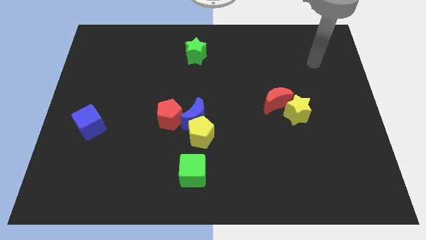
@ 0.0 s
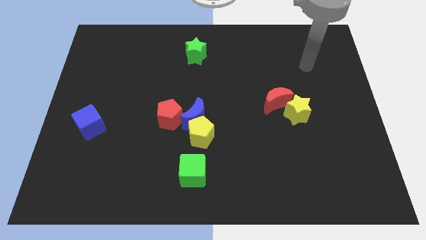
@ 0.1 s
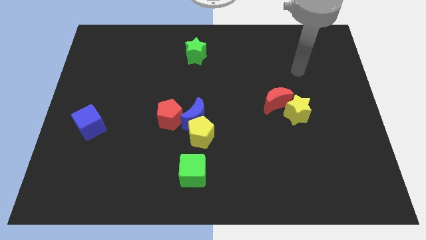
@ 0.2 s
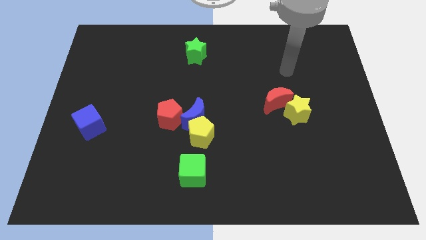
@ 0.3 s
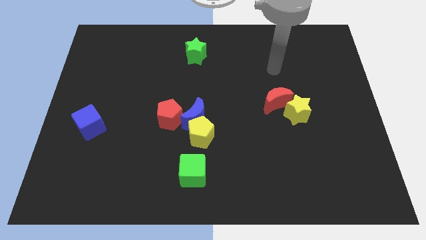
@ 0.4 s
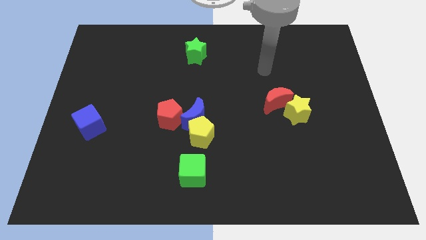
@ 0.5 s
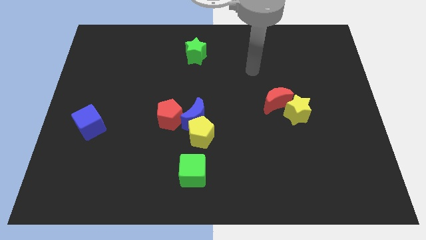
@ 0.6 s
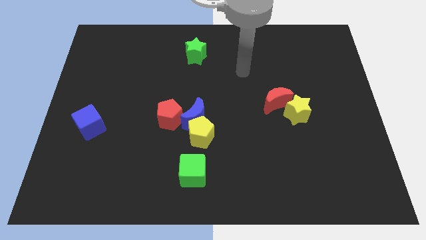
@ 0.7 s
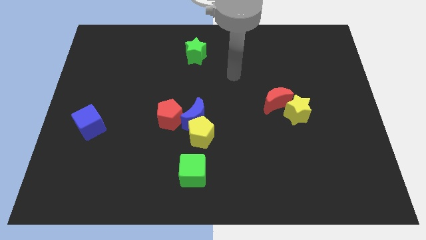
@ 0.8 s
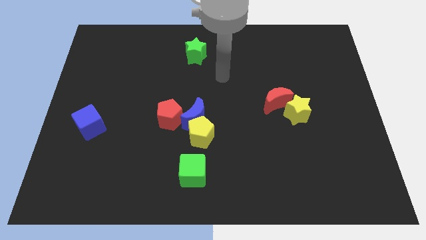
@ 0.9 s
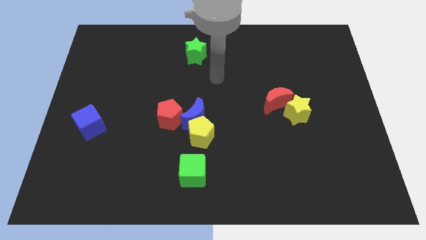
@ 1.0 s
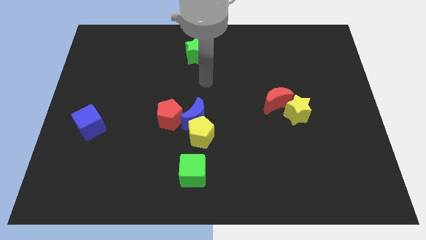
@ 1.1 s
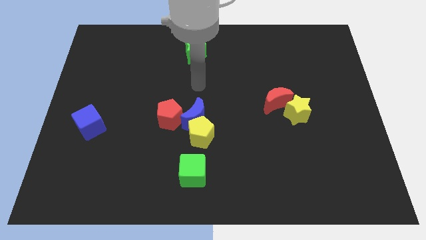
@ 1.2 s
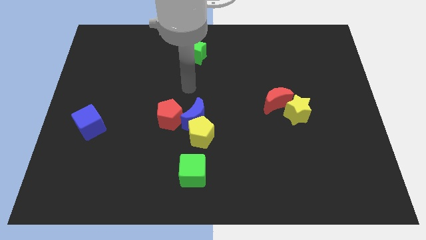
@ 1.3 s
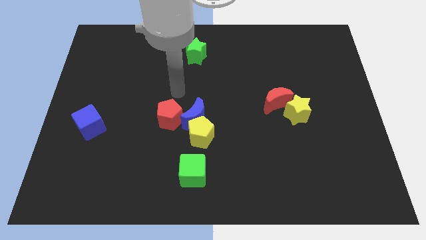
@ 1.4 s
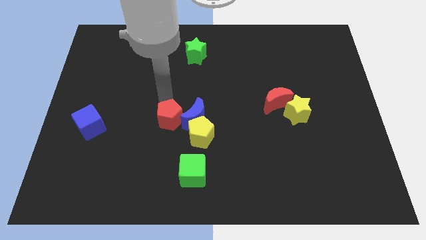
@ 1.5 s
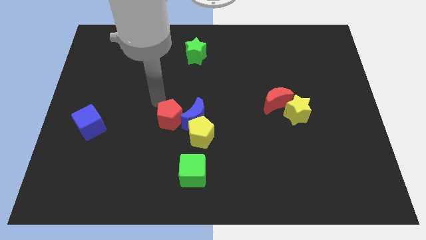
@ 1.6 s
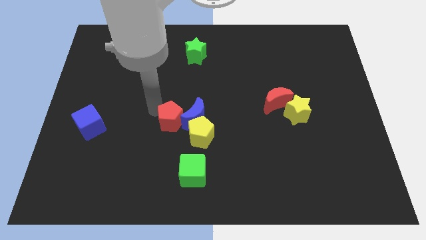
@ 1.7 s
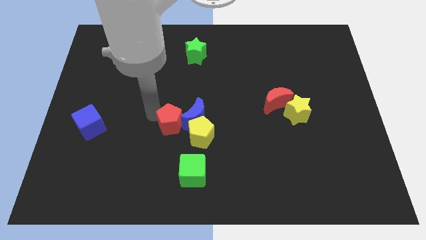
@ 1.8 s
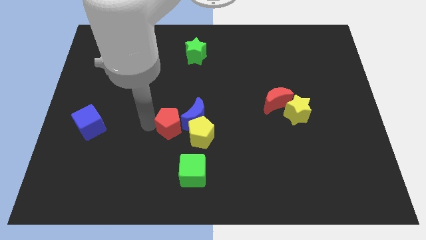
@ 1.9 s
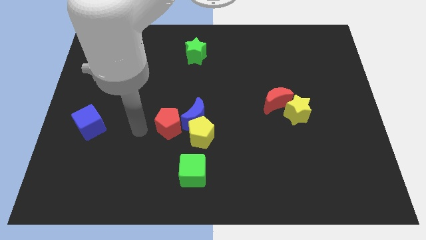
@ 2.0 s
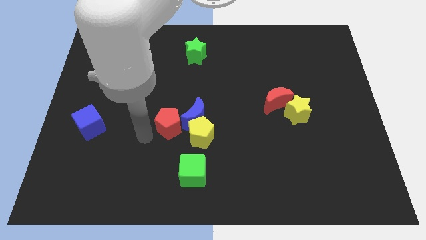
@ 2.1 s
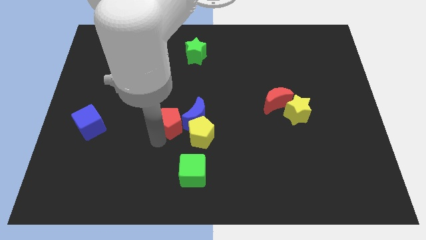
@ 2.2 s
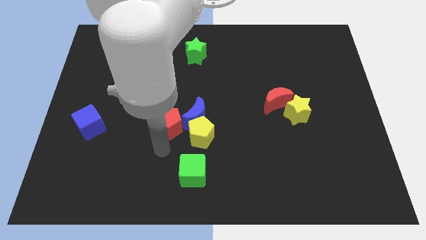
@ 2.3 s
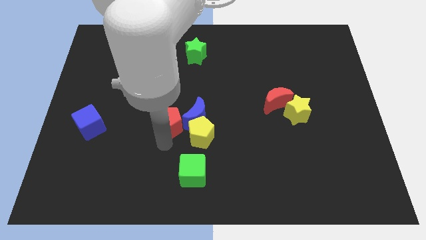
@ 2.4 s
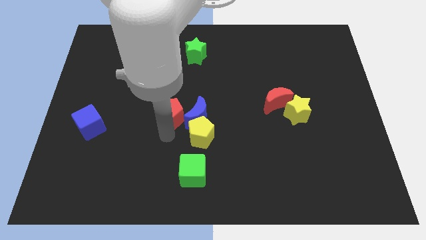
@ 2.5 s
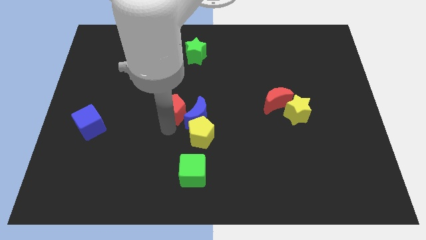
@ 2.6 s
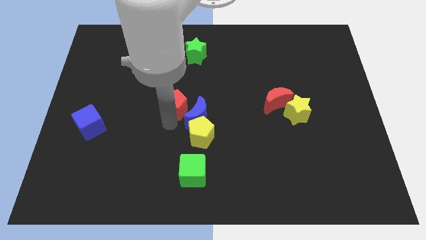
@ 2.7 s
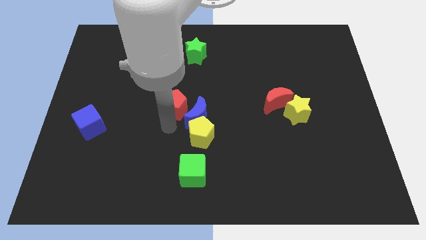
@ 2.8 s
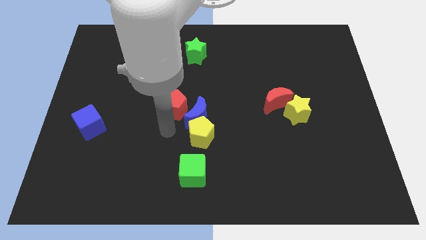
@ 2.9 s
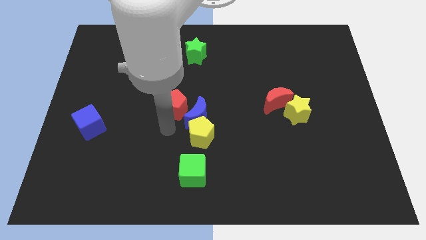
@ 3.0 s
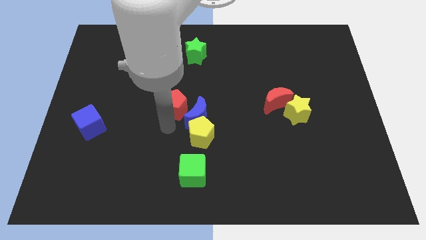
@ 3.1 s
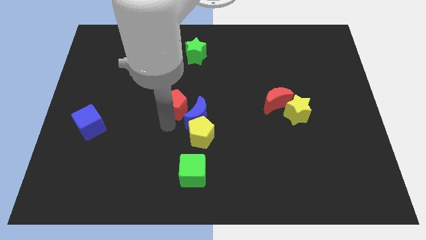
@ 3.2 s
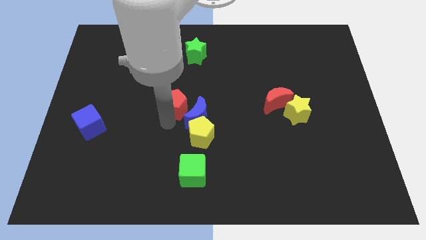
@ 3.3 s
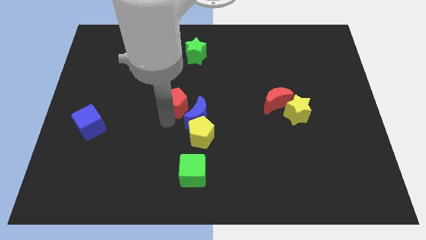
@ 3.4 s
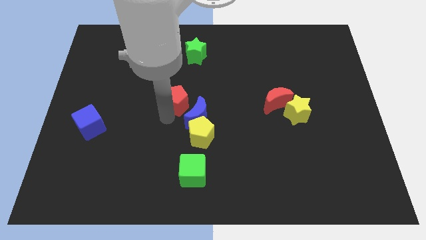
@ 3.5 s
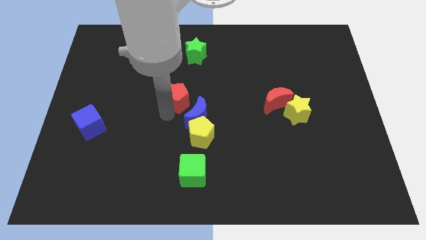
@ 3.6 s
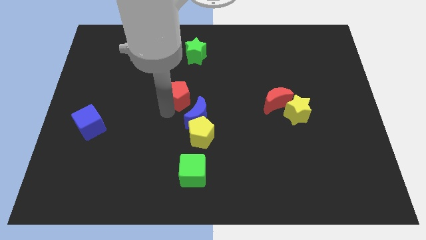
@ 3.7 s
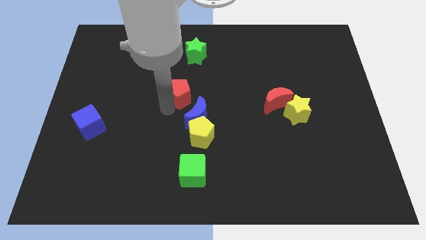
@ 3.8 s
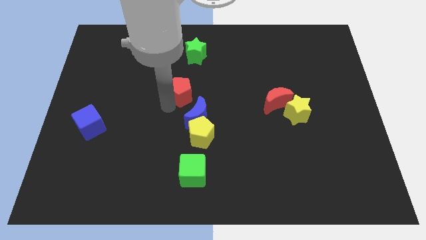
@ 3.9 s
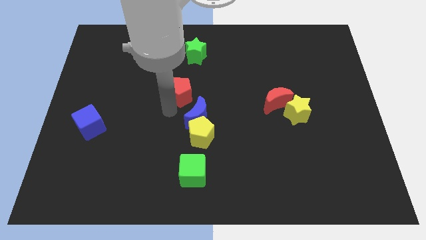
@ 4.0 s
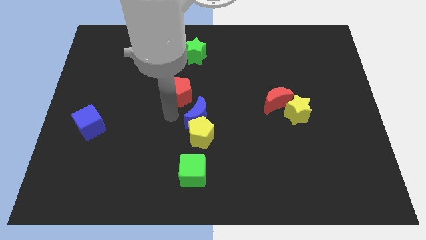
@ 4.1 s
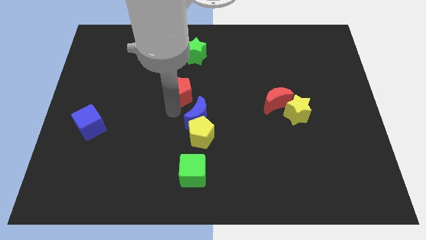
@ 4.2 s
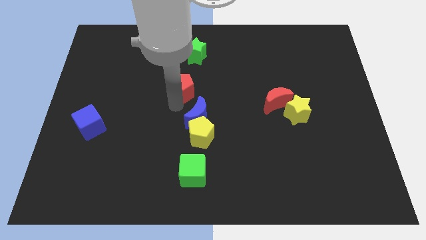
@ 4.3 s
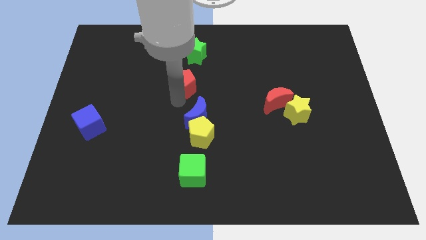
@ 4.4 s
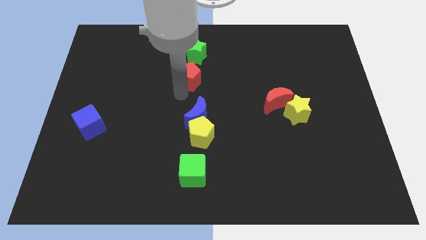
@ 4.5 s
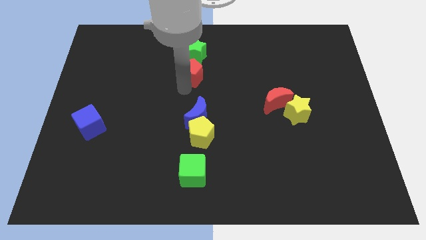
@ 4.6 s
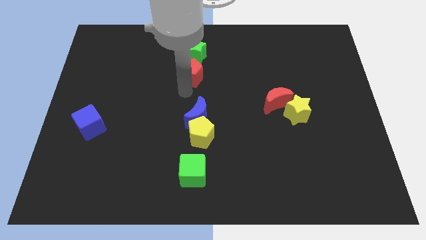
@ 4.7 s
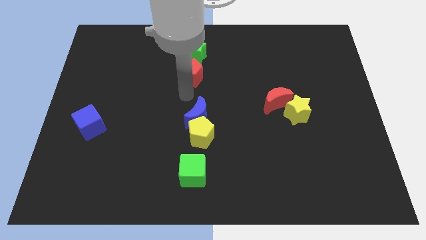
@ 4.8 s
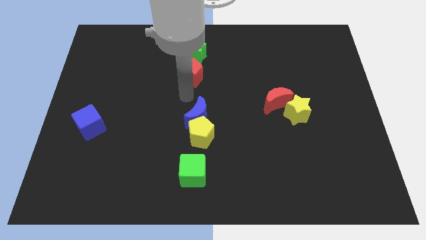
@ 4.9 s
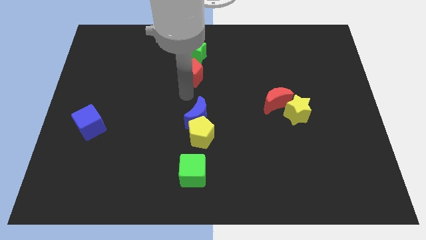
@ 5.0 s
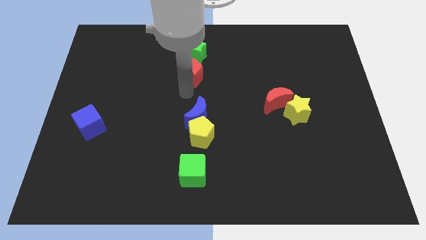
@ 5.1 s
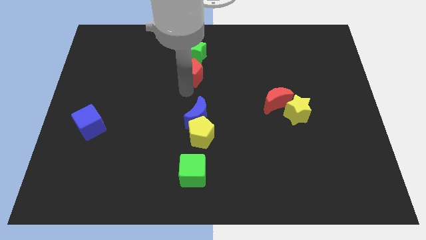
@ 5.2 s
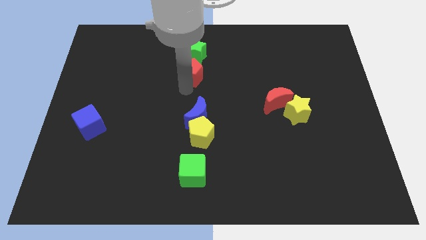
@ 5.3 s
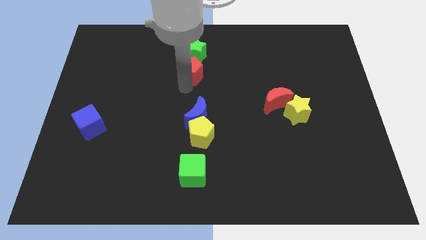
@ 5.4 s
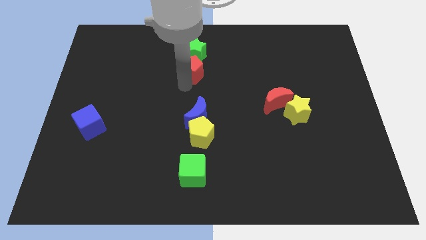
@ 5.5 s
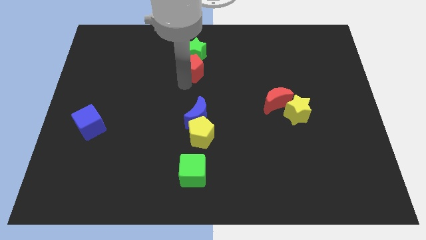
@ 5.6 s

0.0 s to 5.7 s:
slide the red pentagon next to the green star

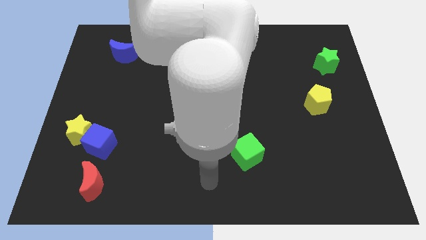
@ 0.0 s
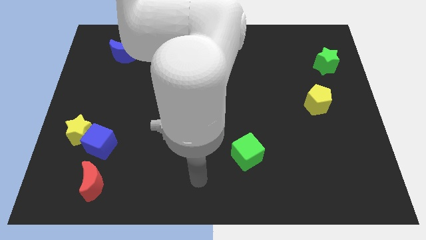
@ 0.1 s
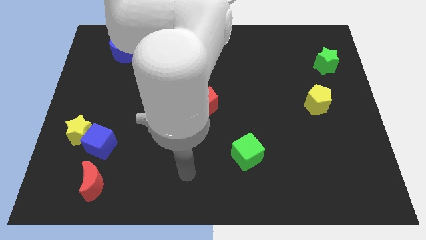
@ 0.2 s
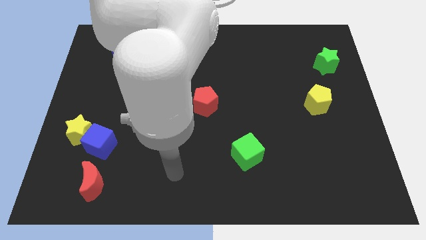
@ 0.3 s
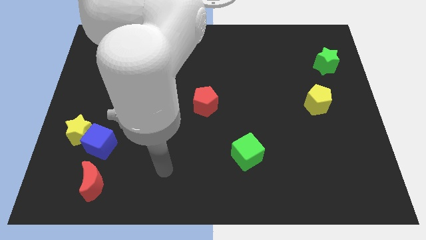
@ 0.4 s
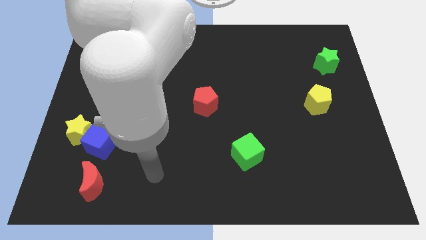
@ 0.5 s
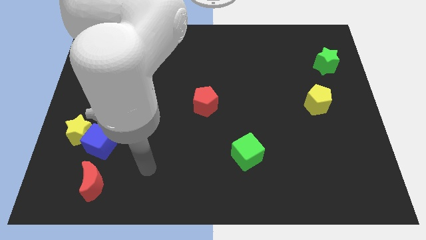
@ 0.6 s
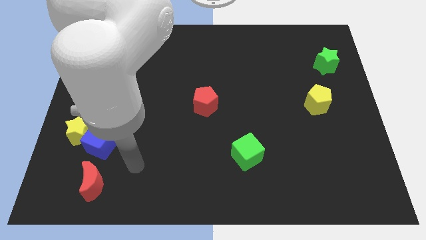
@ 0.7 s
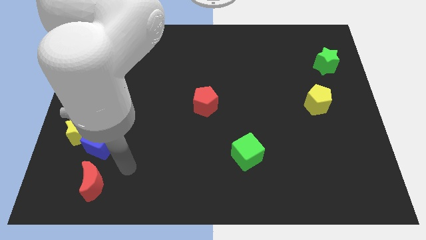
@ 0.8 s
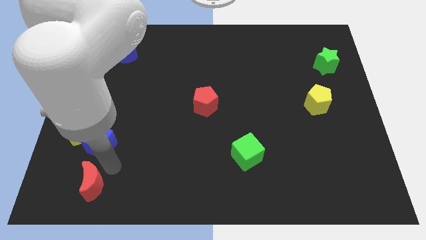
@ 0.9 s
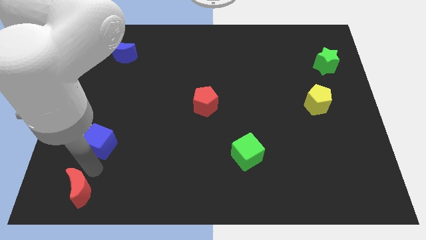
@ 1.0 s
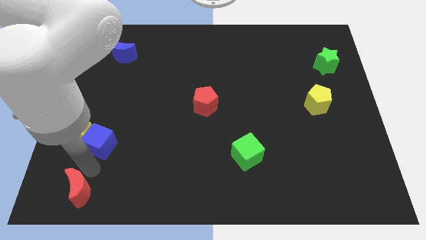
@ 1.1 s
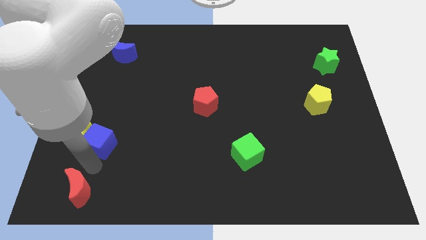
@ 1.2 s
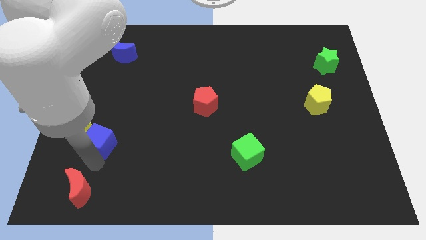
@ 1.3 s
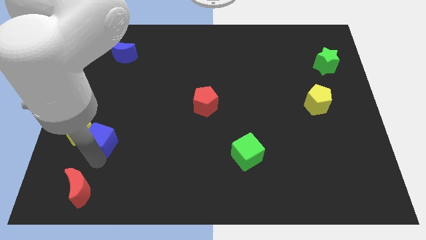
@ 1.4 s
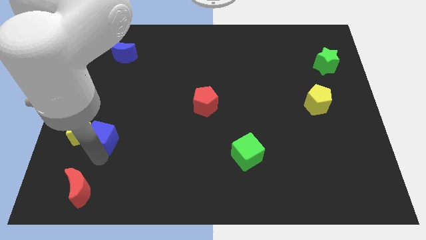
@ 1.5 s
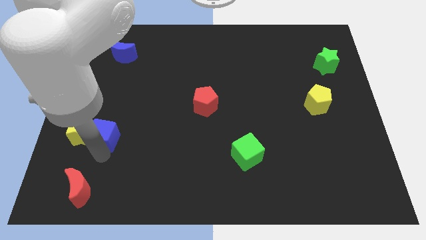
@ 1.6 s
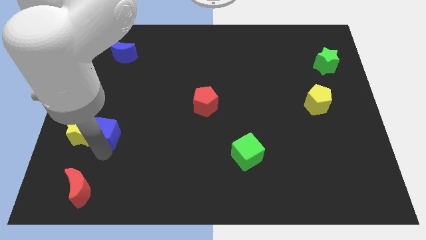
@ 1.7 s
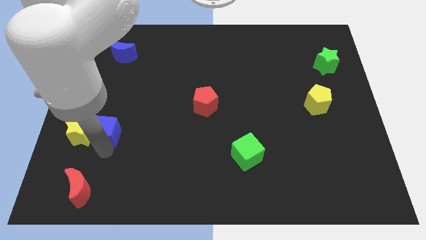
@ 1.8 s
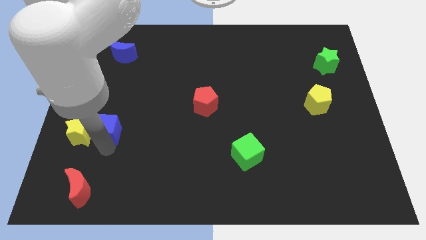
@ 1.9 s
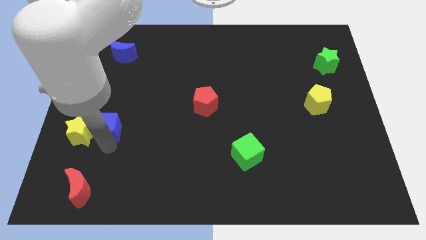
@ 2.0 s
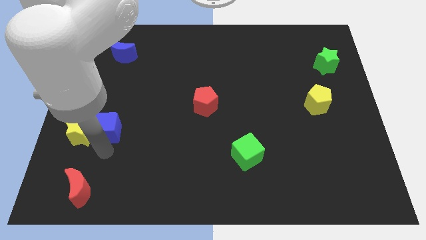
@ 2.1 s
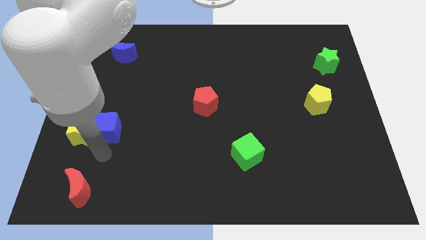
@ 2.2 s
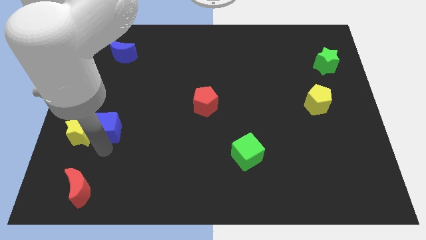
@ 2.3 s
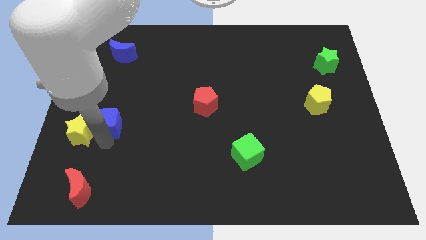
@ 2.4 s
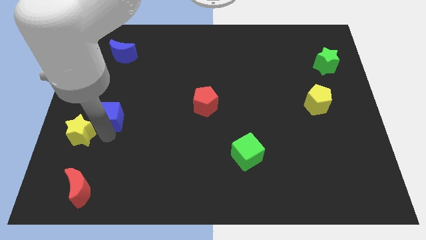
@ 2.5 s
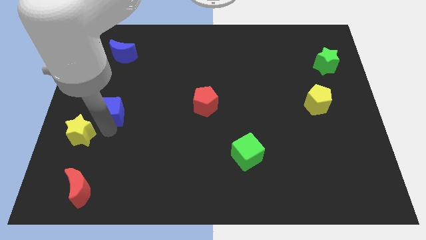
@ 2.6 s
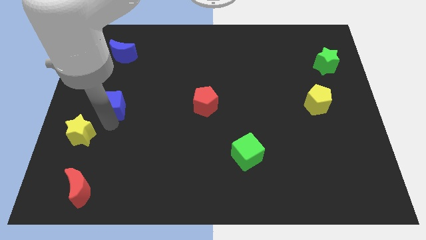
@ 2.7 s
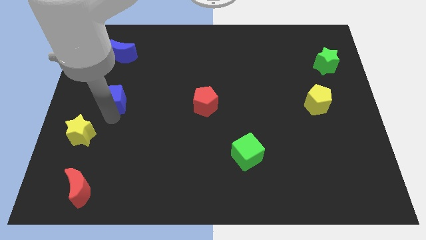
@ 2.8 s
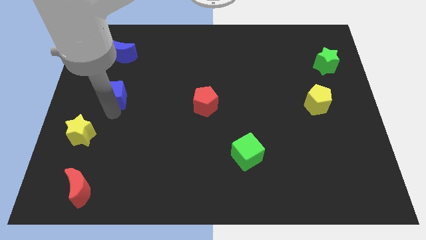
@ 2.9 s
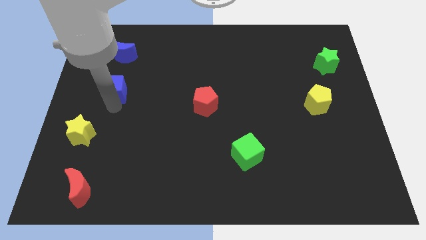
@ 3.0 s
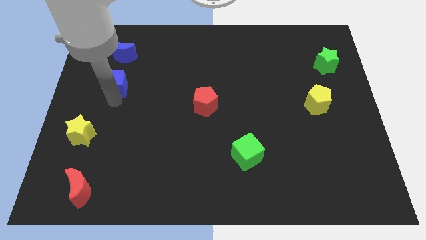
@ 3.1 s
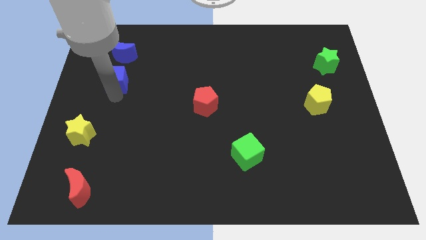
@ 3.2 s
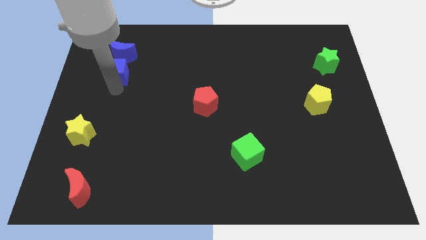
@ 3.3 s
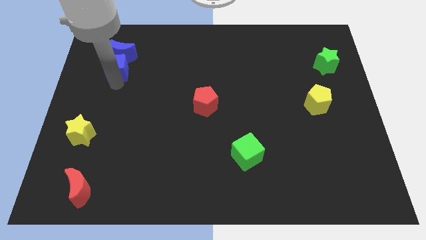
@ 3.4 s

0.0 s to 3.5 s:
slide the blue cube towards the blue moon
